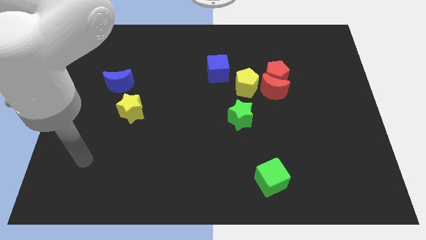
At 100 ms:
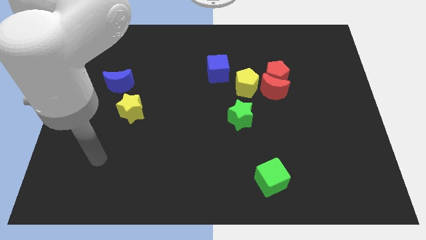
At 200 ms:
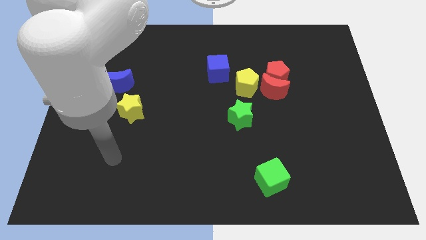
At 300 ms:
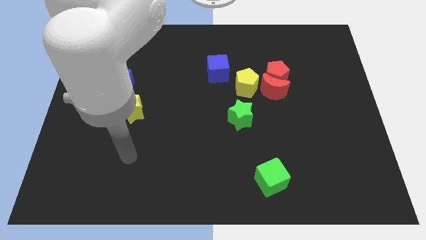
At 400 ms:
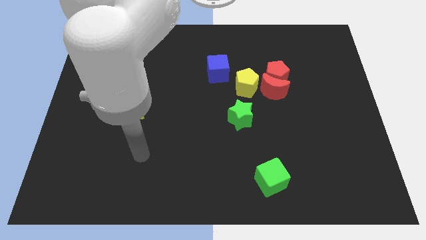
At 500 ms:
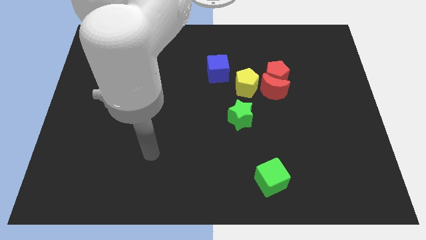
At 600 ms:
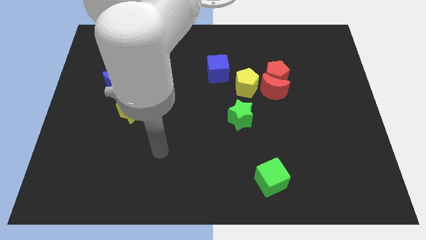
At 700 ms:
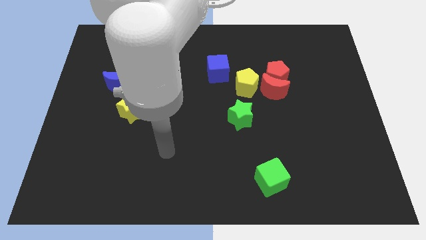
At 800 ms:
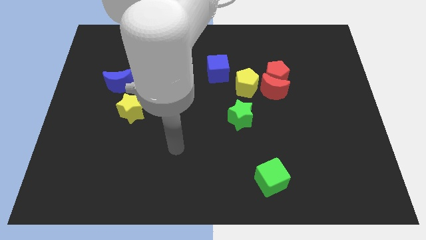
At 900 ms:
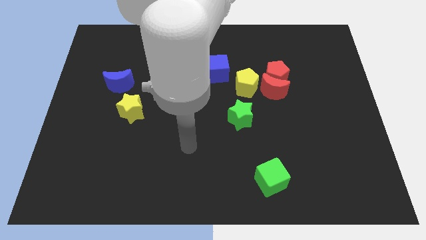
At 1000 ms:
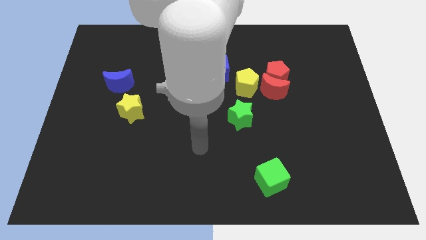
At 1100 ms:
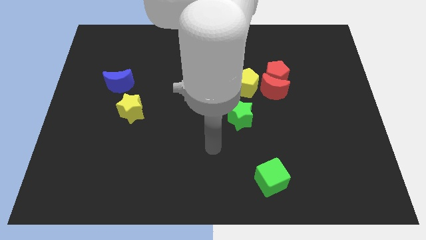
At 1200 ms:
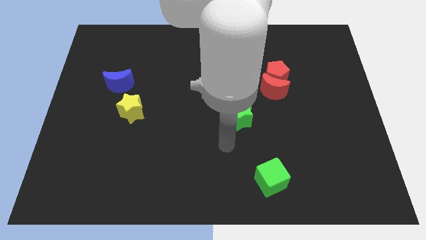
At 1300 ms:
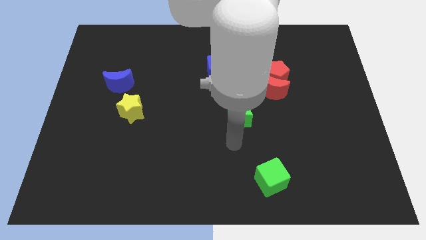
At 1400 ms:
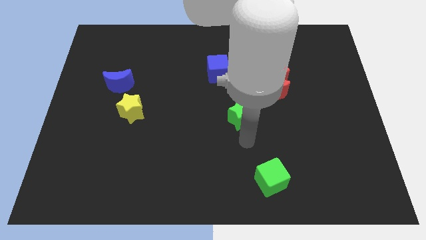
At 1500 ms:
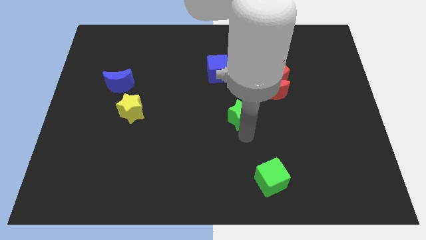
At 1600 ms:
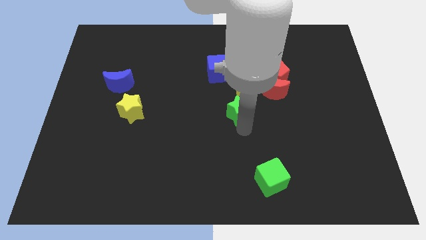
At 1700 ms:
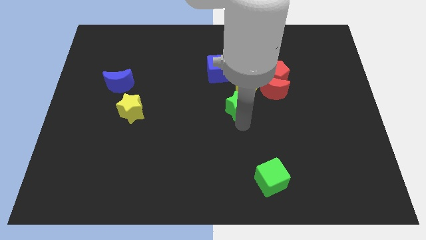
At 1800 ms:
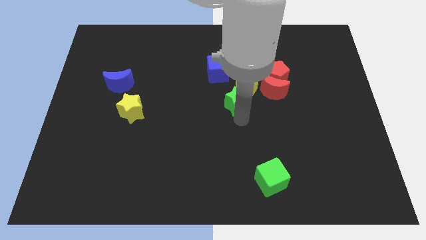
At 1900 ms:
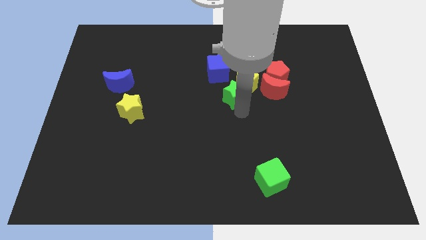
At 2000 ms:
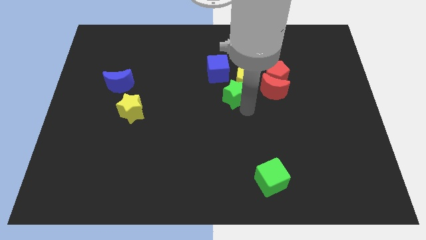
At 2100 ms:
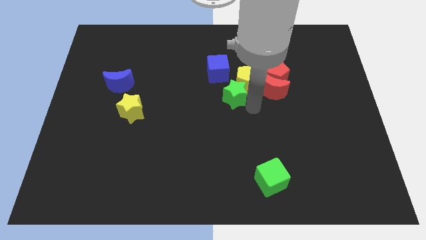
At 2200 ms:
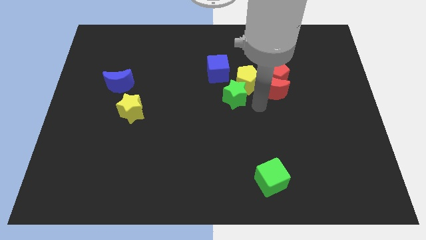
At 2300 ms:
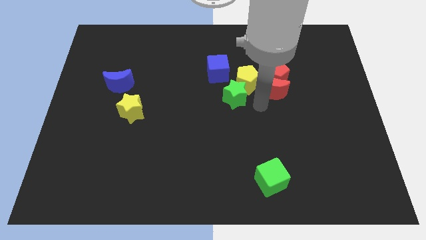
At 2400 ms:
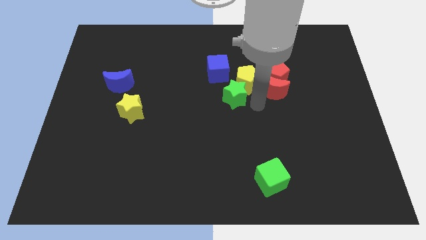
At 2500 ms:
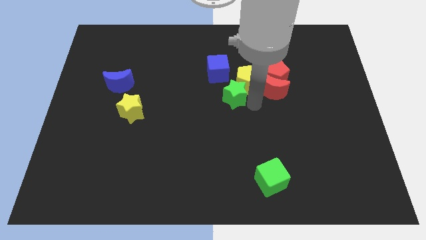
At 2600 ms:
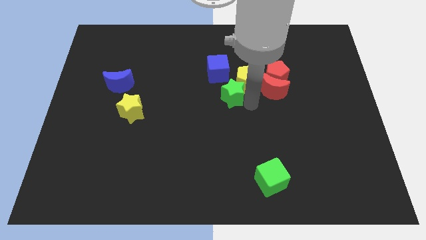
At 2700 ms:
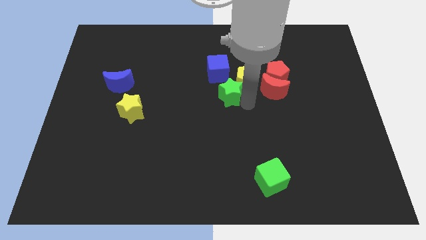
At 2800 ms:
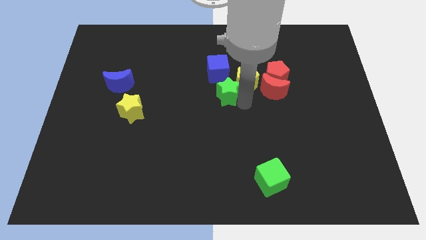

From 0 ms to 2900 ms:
move the green star a little upwards

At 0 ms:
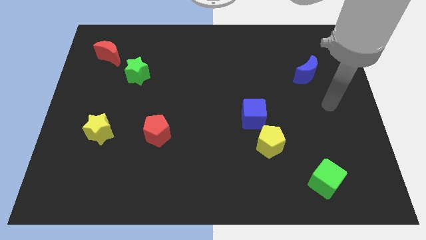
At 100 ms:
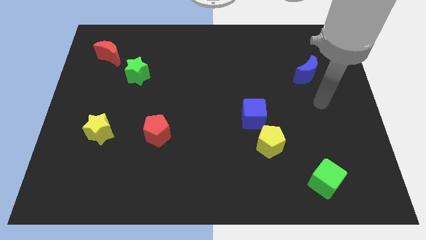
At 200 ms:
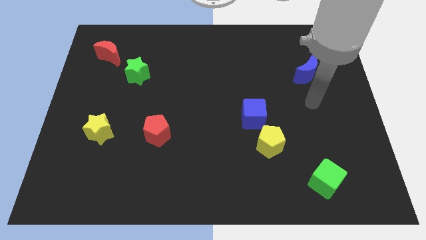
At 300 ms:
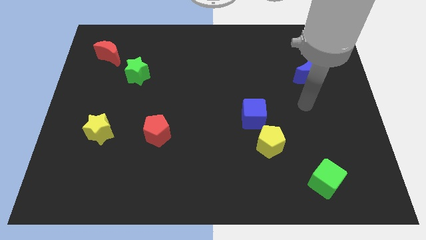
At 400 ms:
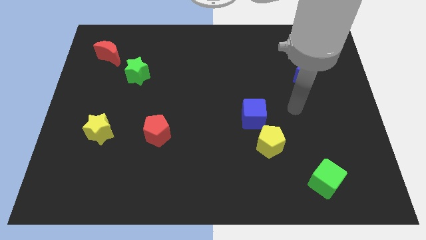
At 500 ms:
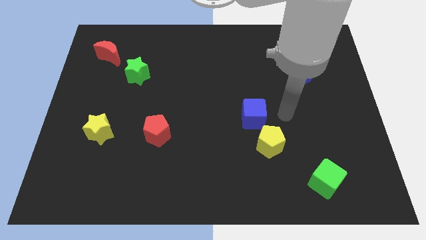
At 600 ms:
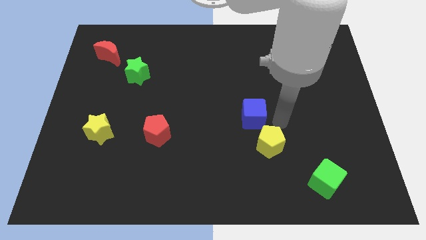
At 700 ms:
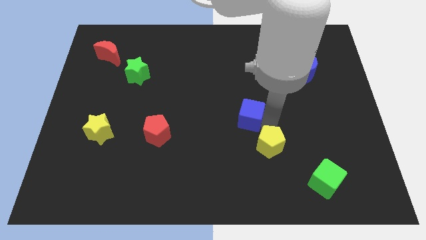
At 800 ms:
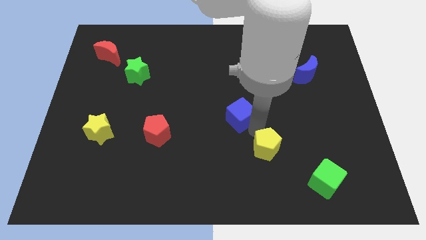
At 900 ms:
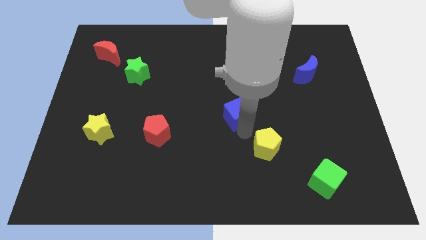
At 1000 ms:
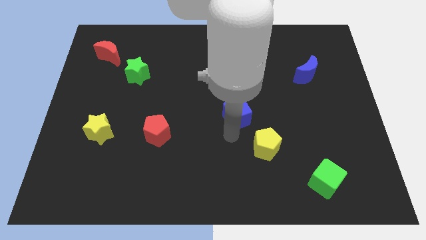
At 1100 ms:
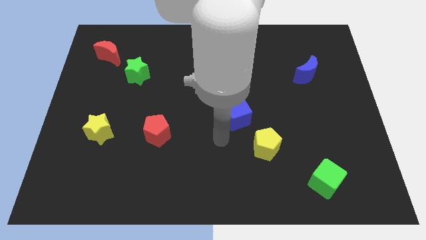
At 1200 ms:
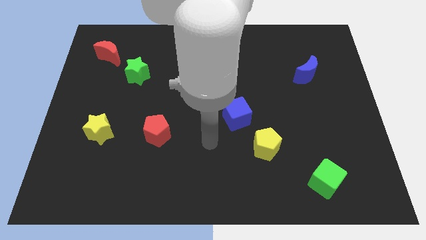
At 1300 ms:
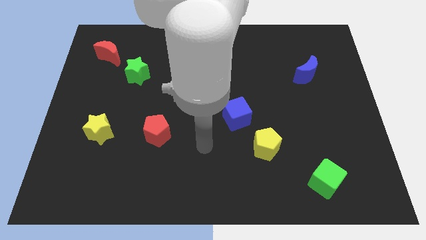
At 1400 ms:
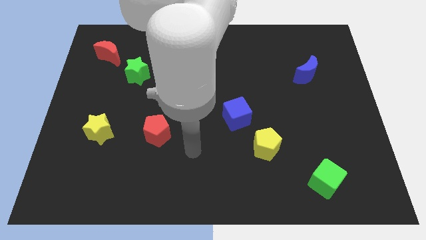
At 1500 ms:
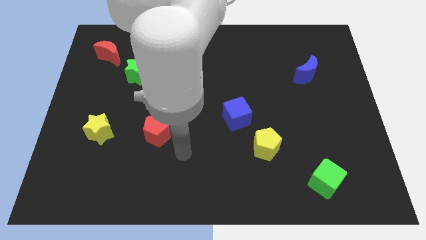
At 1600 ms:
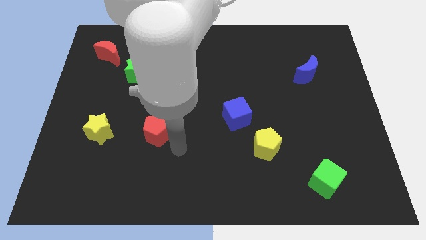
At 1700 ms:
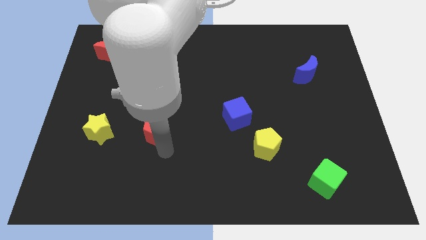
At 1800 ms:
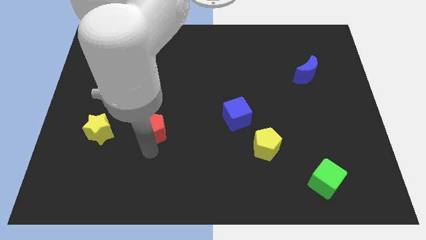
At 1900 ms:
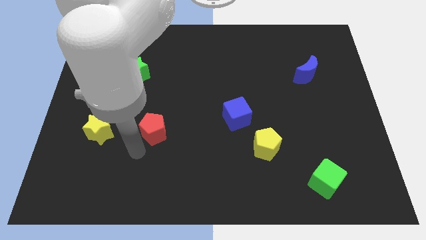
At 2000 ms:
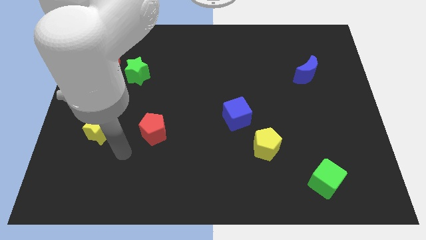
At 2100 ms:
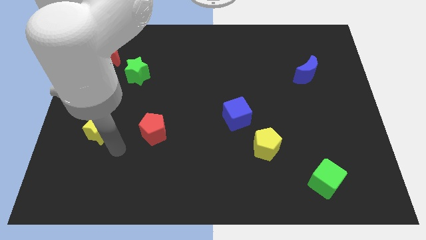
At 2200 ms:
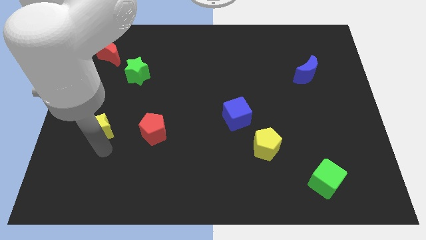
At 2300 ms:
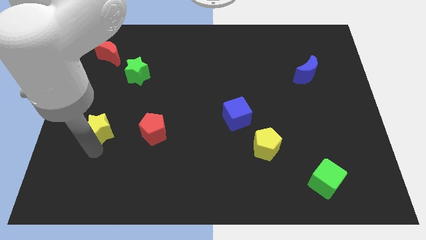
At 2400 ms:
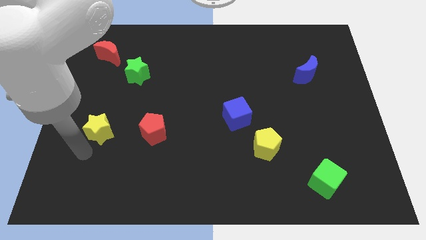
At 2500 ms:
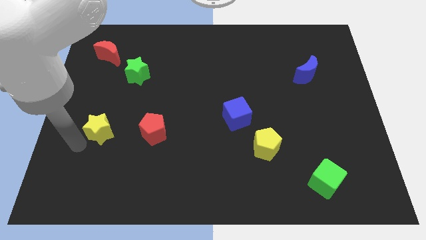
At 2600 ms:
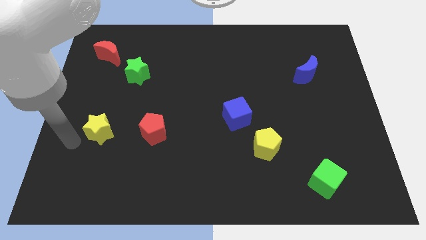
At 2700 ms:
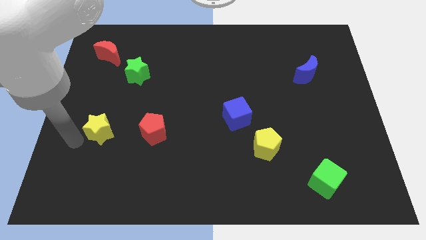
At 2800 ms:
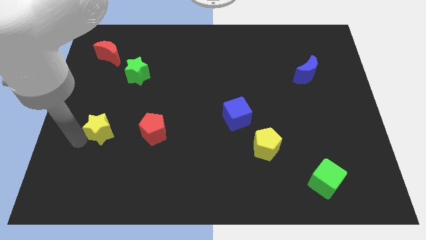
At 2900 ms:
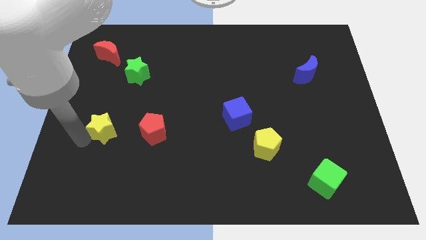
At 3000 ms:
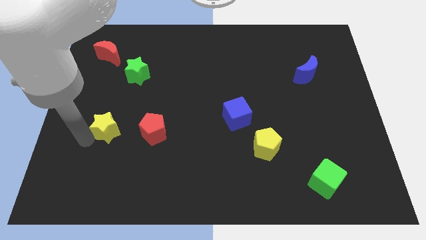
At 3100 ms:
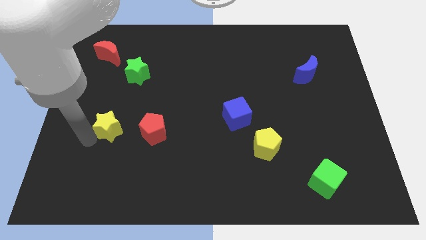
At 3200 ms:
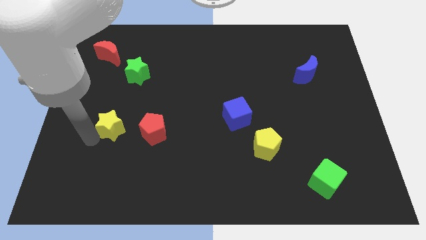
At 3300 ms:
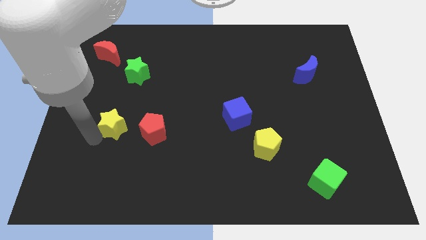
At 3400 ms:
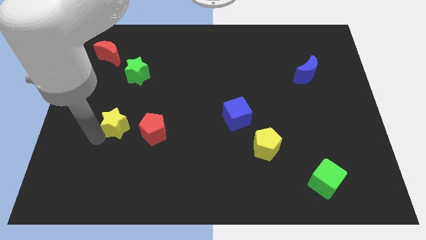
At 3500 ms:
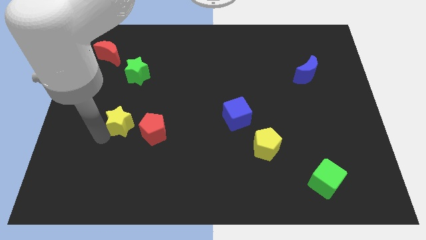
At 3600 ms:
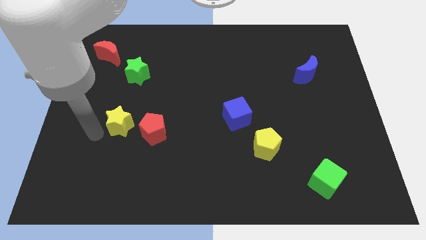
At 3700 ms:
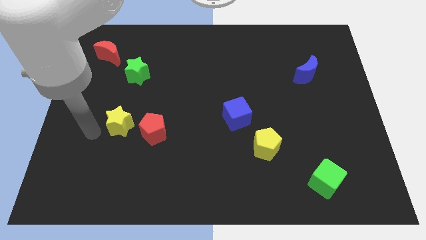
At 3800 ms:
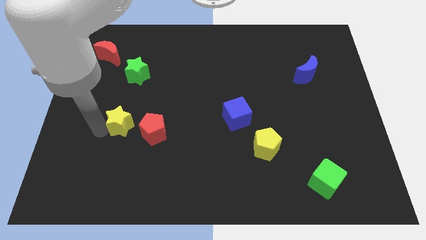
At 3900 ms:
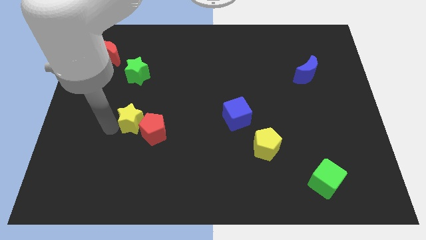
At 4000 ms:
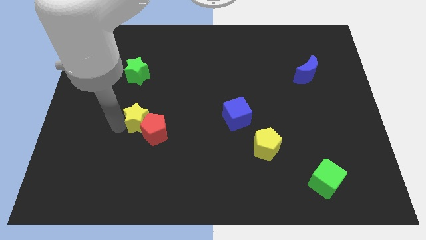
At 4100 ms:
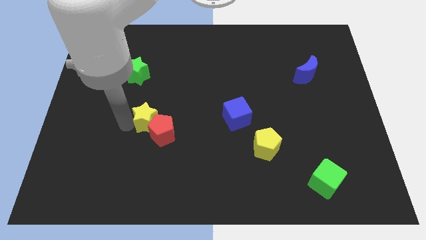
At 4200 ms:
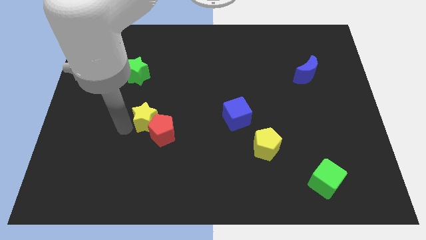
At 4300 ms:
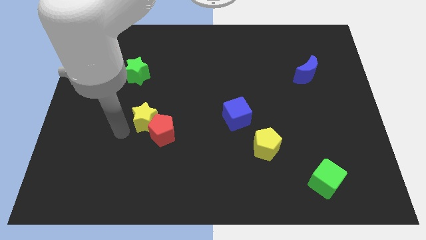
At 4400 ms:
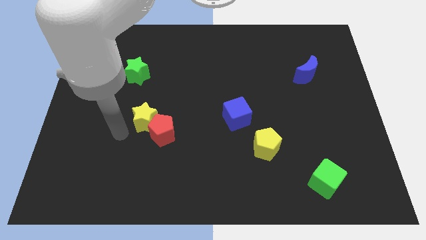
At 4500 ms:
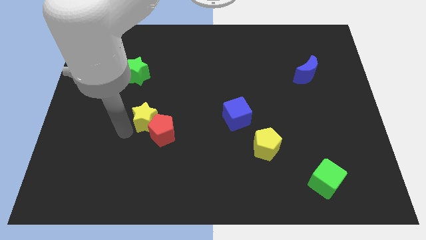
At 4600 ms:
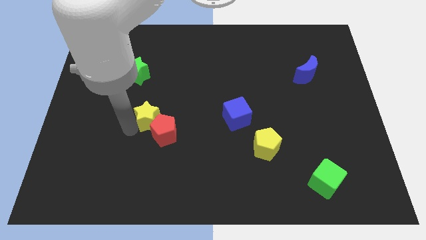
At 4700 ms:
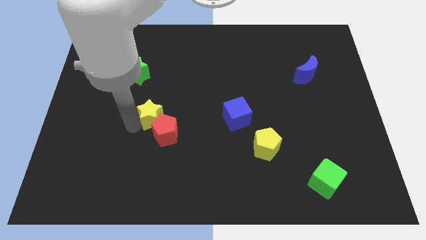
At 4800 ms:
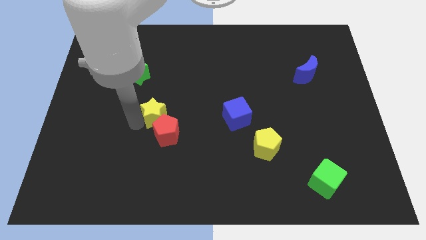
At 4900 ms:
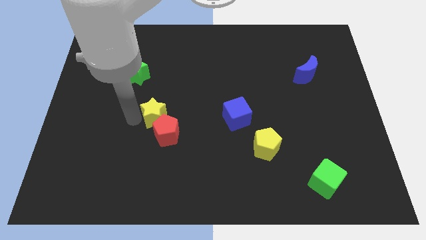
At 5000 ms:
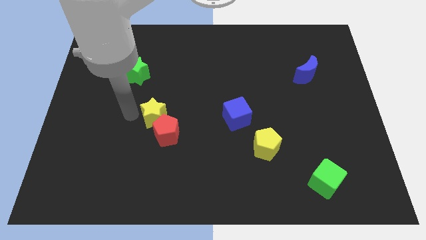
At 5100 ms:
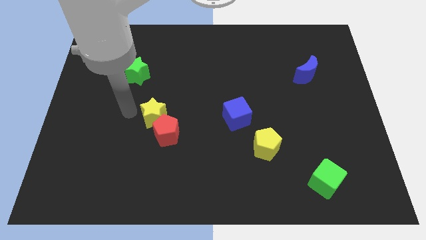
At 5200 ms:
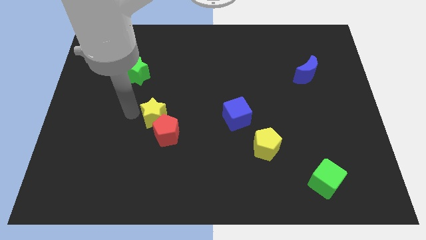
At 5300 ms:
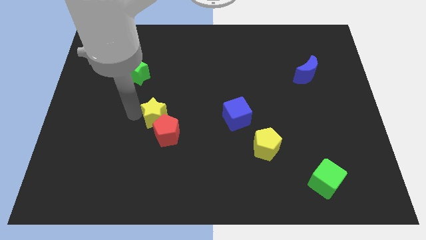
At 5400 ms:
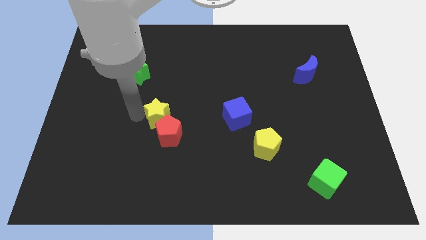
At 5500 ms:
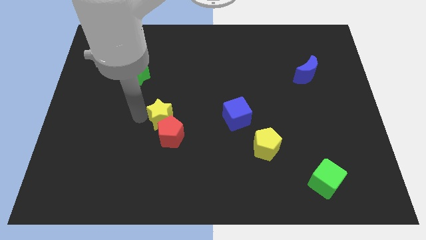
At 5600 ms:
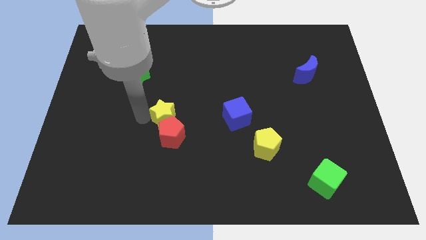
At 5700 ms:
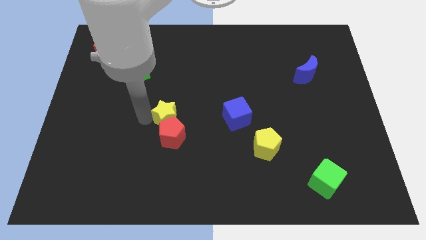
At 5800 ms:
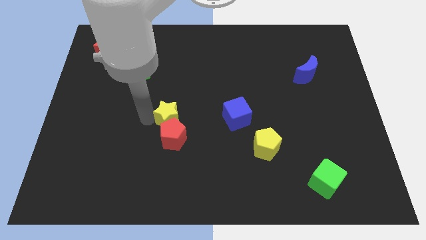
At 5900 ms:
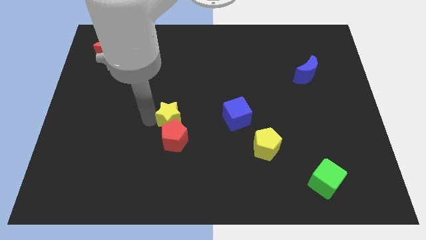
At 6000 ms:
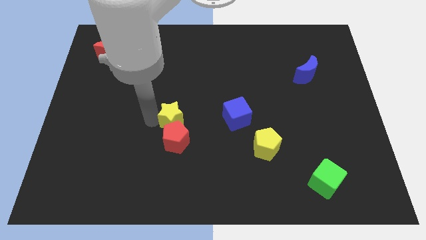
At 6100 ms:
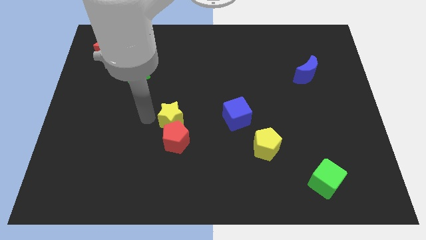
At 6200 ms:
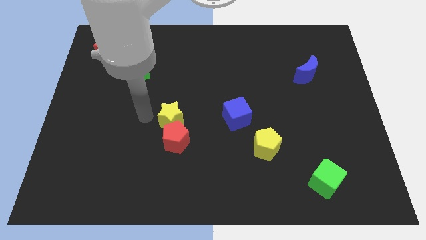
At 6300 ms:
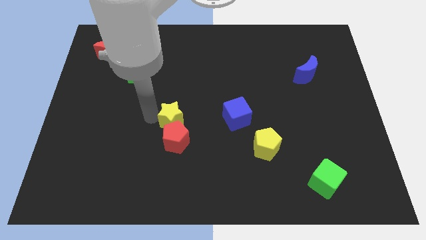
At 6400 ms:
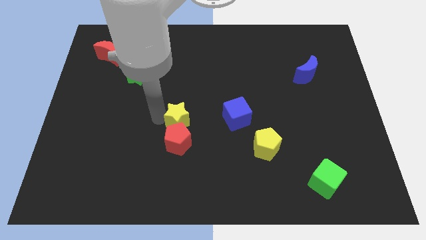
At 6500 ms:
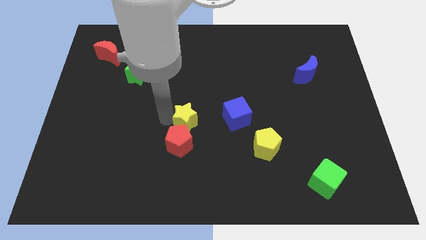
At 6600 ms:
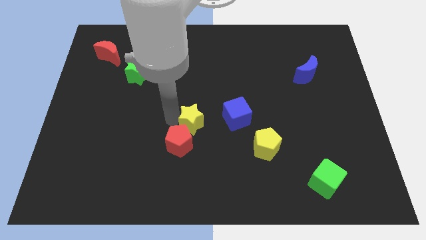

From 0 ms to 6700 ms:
push the yellow star to the right
